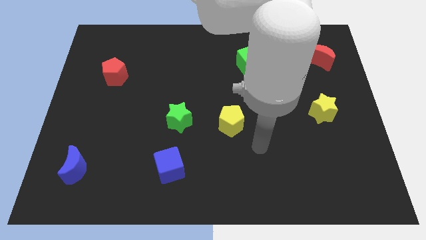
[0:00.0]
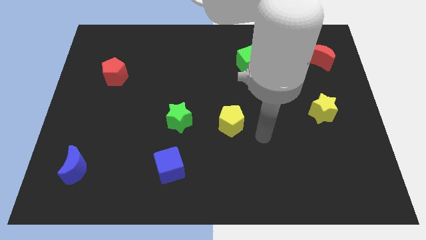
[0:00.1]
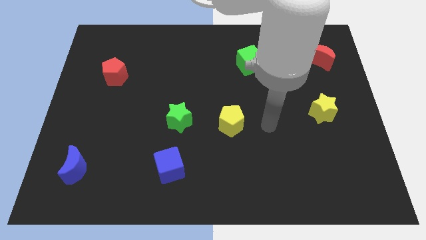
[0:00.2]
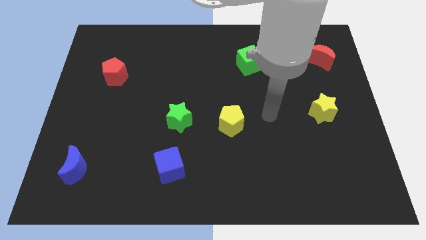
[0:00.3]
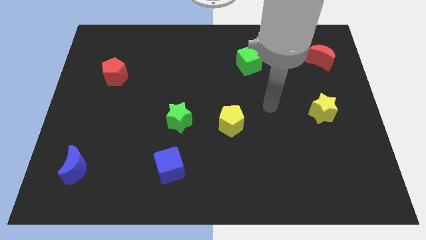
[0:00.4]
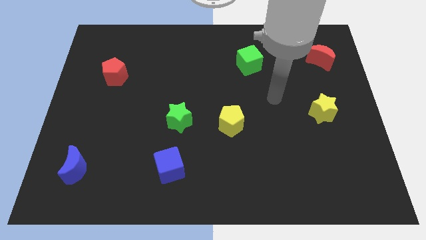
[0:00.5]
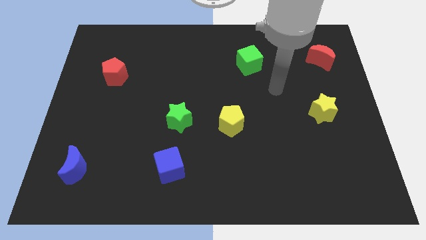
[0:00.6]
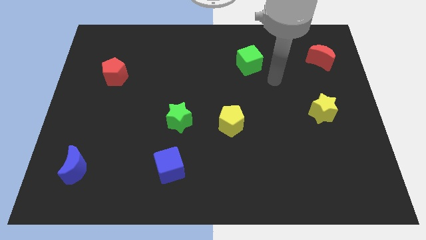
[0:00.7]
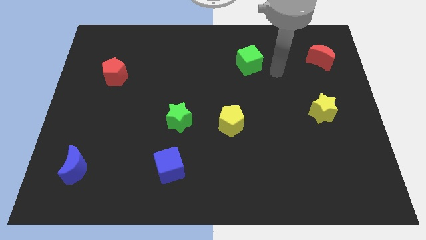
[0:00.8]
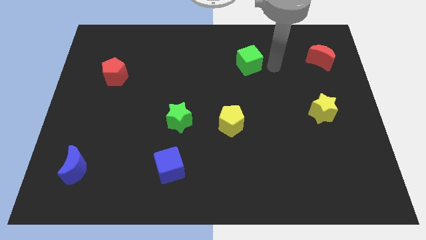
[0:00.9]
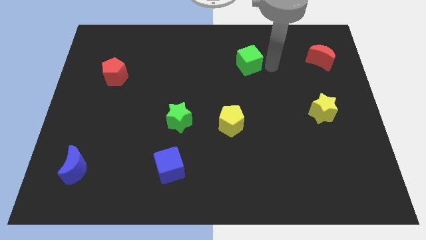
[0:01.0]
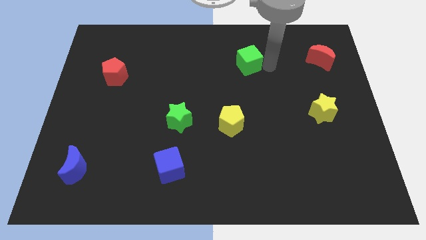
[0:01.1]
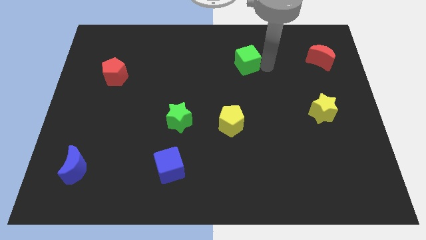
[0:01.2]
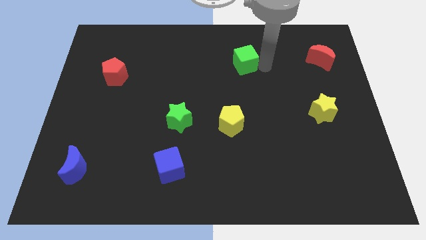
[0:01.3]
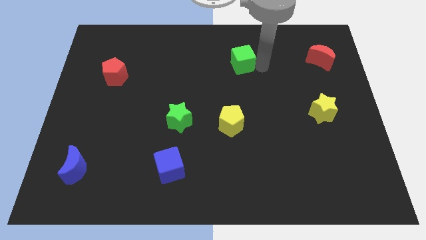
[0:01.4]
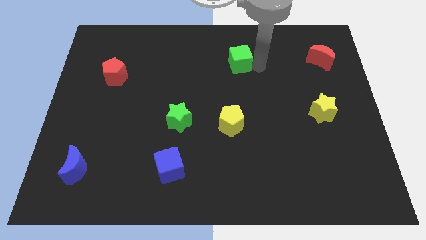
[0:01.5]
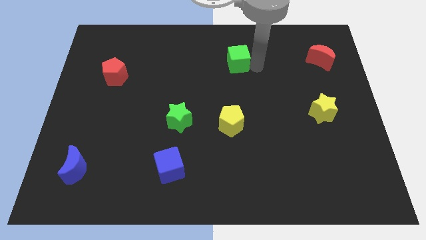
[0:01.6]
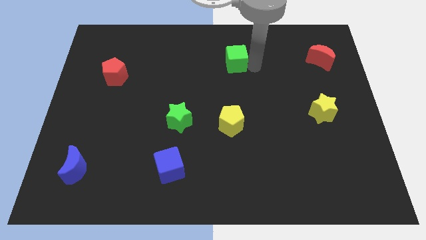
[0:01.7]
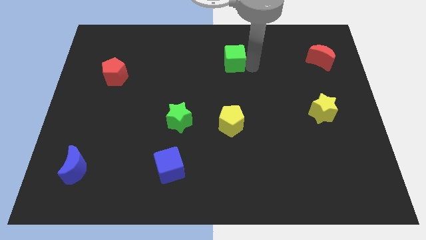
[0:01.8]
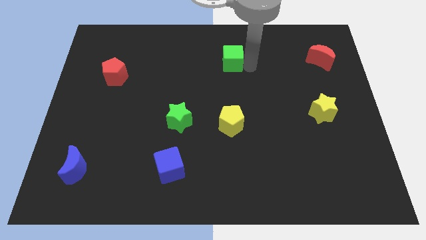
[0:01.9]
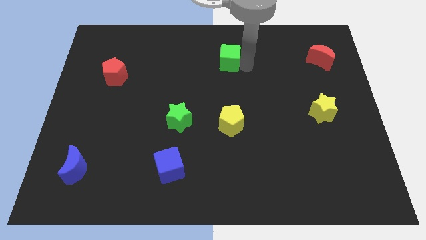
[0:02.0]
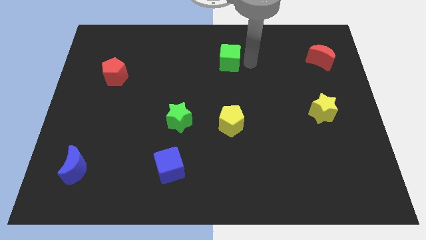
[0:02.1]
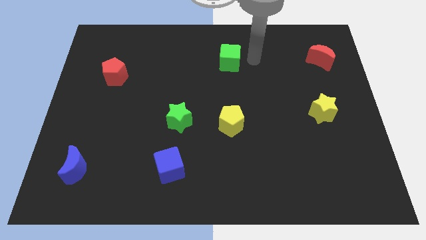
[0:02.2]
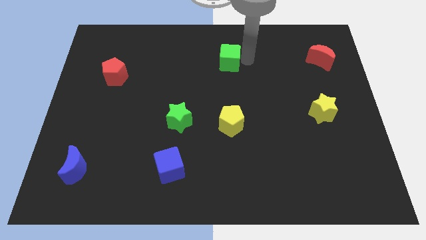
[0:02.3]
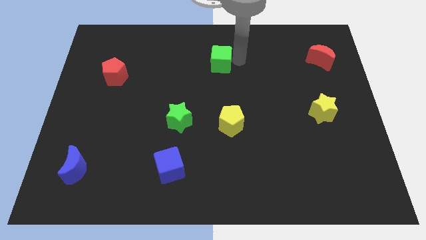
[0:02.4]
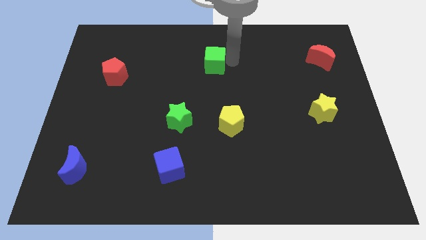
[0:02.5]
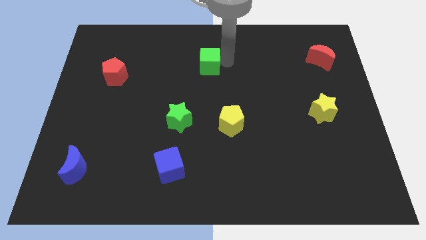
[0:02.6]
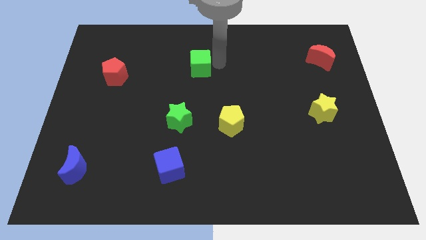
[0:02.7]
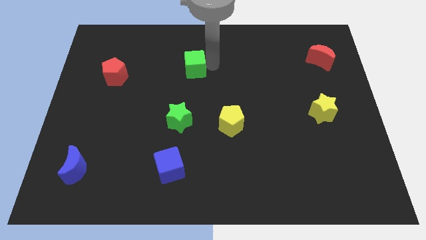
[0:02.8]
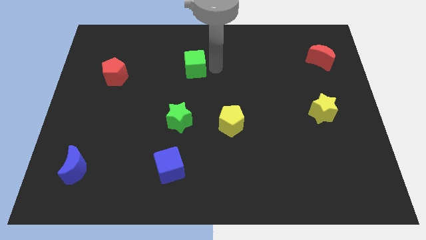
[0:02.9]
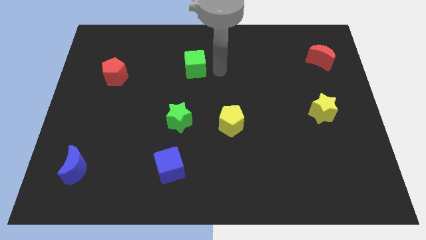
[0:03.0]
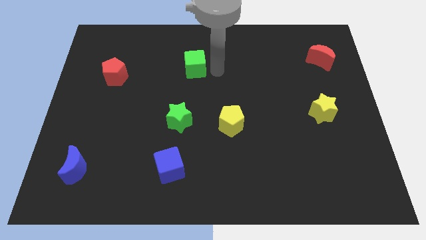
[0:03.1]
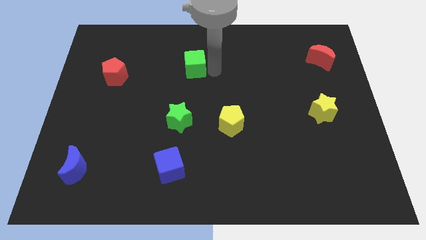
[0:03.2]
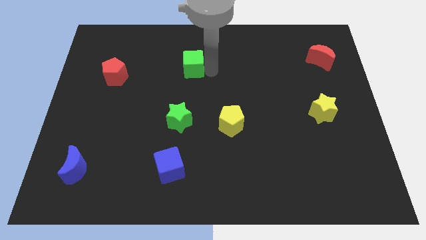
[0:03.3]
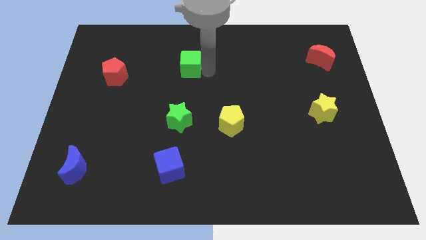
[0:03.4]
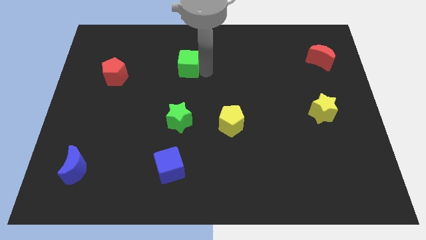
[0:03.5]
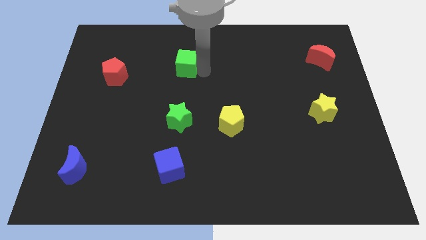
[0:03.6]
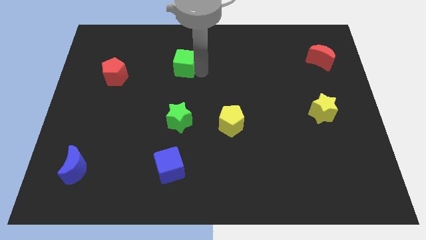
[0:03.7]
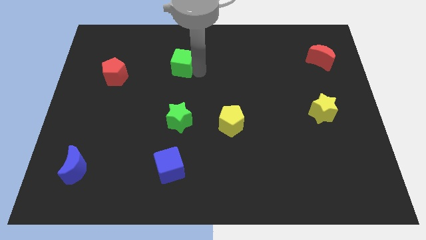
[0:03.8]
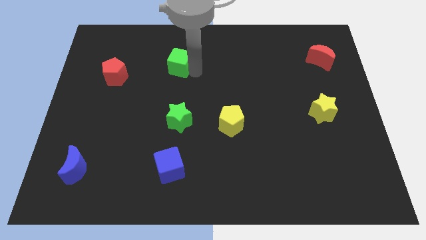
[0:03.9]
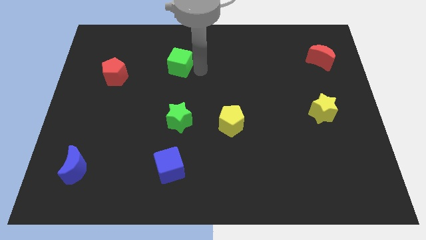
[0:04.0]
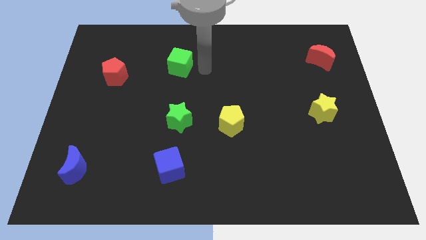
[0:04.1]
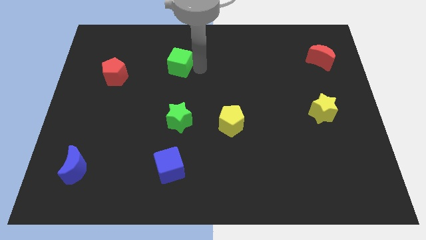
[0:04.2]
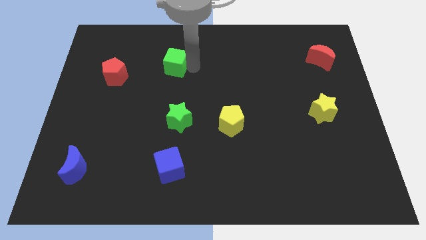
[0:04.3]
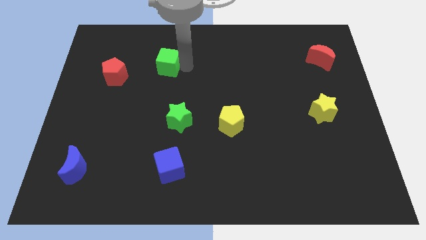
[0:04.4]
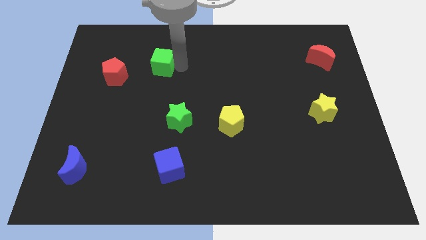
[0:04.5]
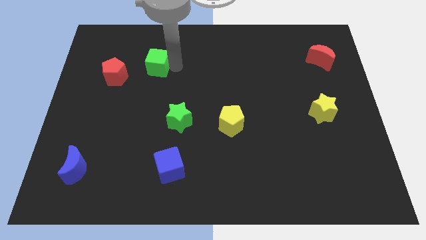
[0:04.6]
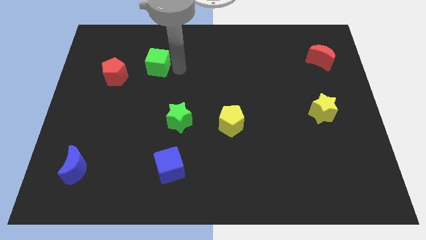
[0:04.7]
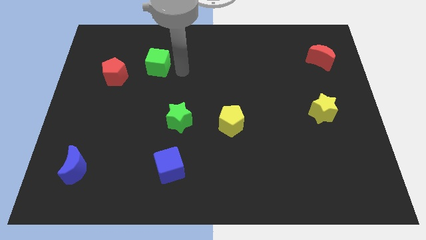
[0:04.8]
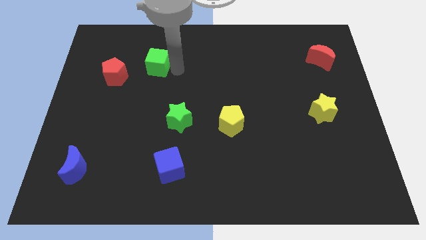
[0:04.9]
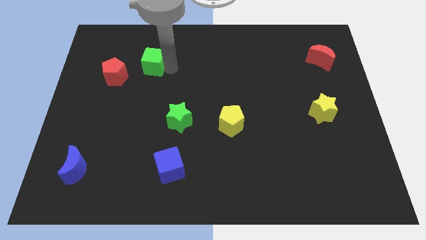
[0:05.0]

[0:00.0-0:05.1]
slide the green cube to the top right of the red pentagon

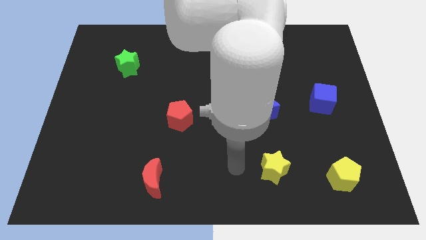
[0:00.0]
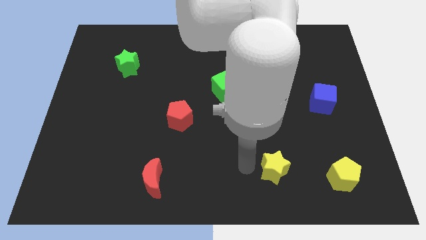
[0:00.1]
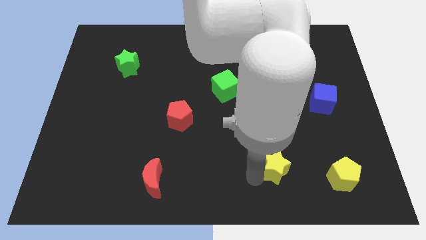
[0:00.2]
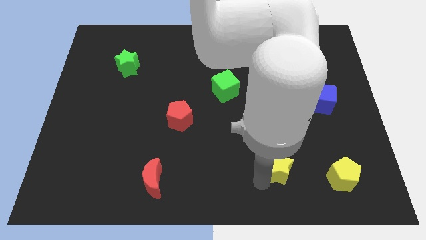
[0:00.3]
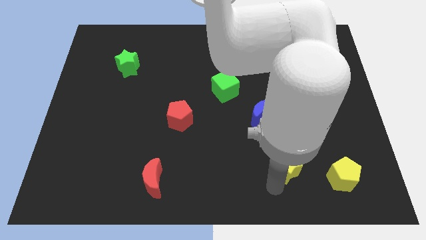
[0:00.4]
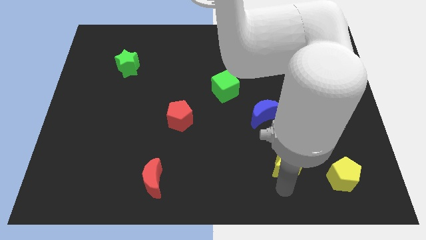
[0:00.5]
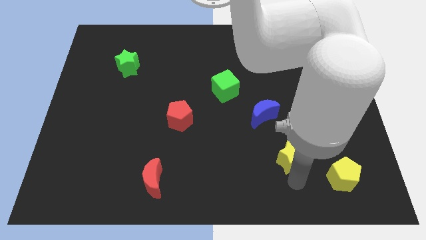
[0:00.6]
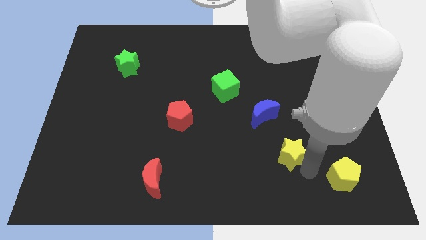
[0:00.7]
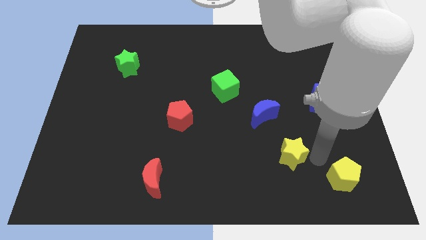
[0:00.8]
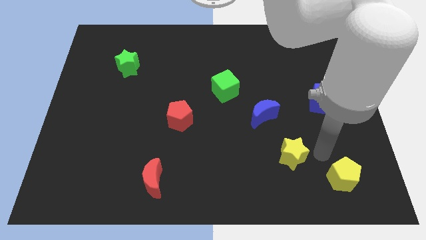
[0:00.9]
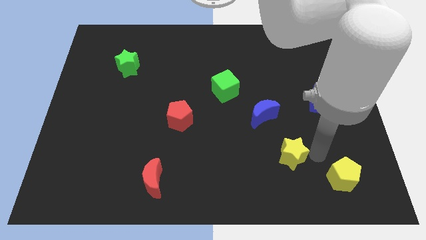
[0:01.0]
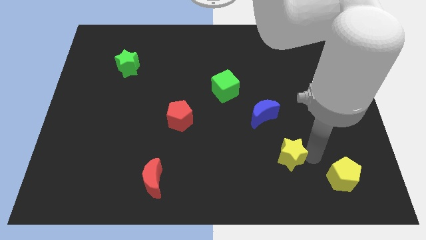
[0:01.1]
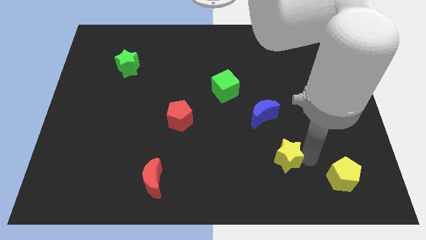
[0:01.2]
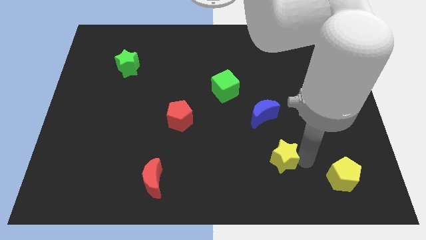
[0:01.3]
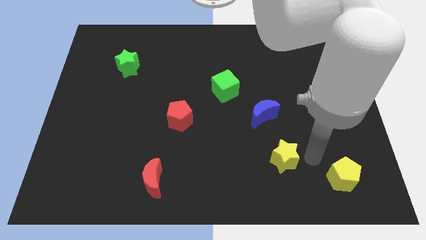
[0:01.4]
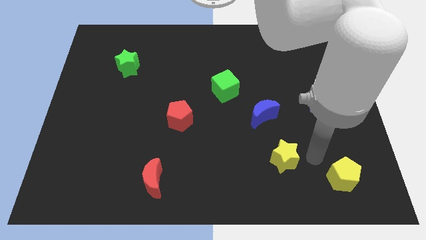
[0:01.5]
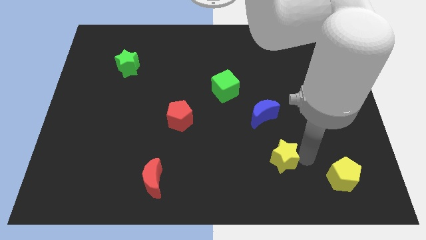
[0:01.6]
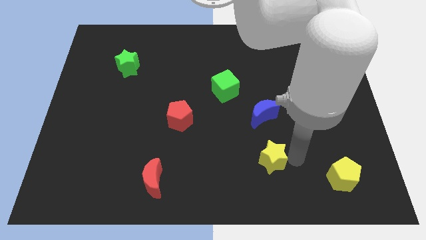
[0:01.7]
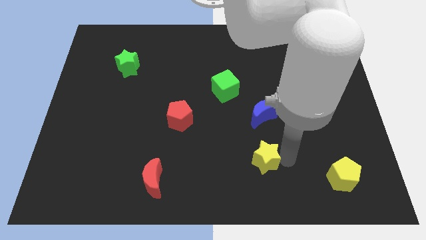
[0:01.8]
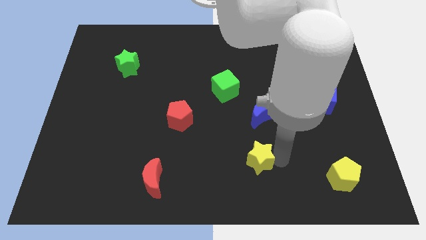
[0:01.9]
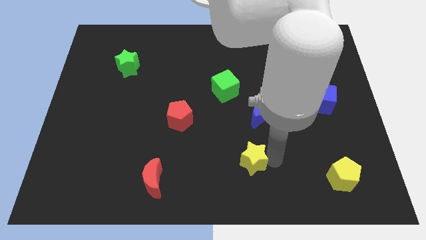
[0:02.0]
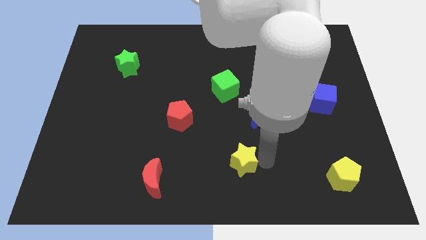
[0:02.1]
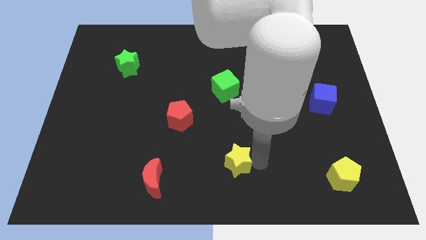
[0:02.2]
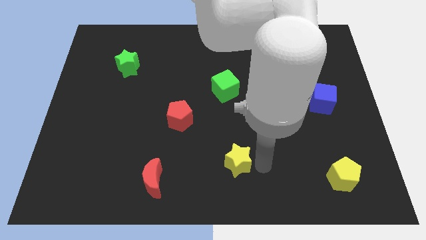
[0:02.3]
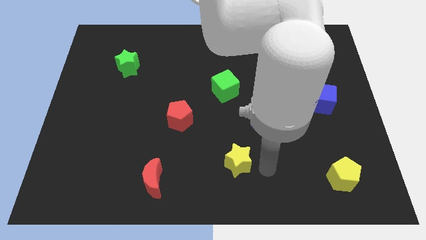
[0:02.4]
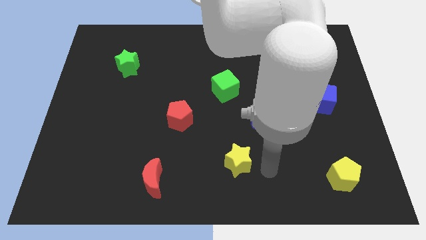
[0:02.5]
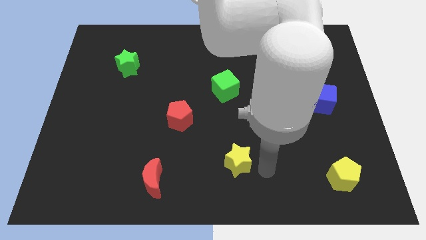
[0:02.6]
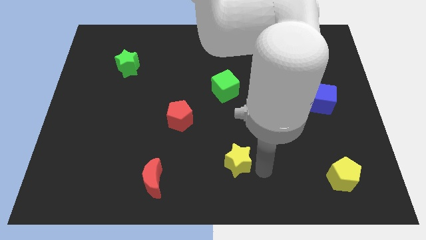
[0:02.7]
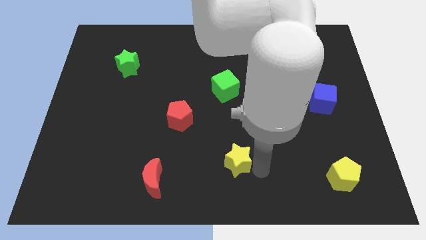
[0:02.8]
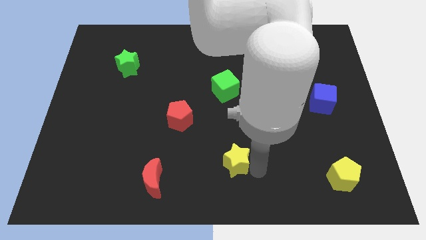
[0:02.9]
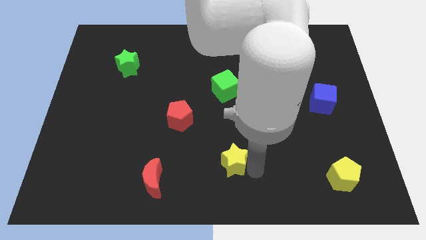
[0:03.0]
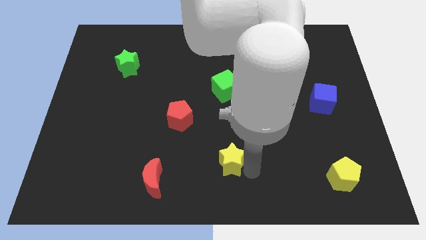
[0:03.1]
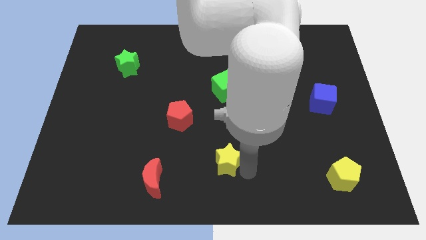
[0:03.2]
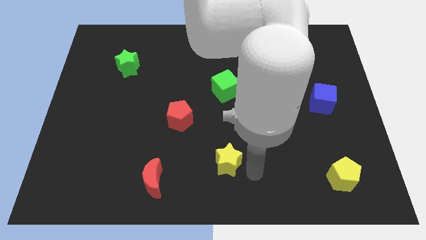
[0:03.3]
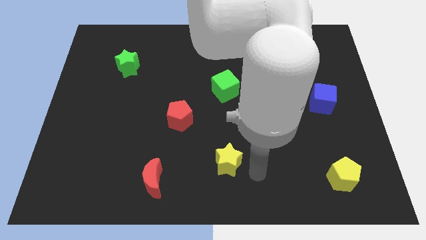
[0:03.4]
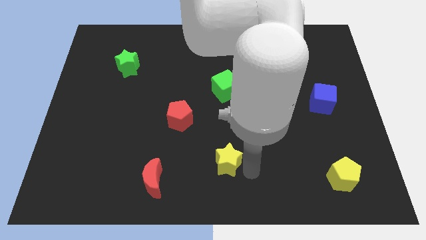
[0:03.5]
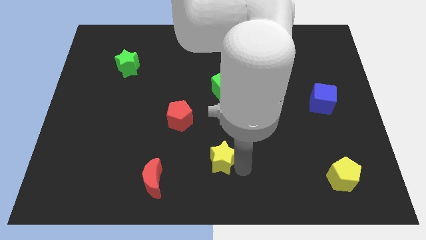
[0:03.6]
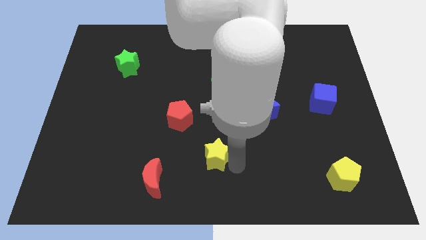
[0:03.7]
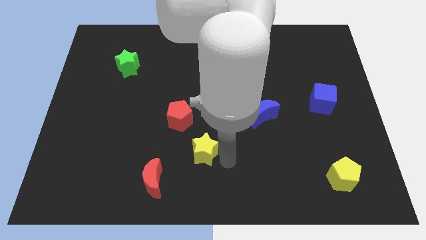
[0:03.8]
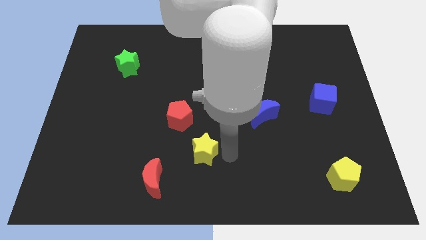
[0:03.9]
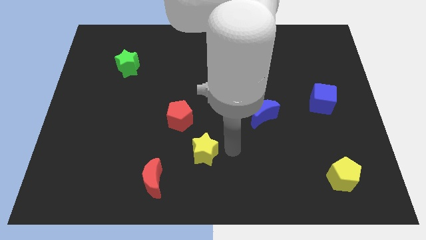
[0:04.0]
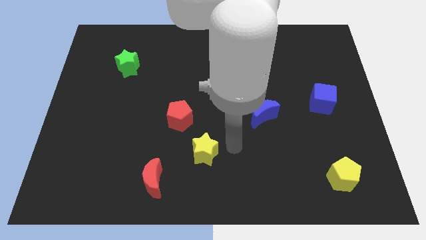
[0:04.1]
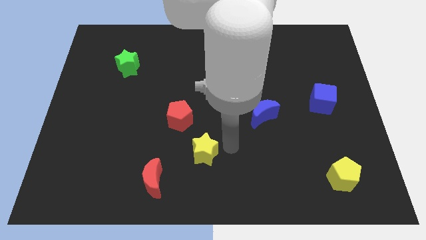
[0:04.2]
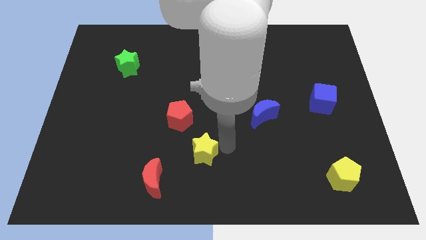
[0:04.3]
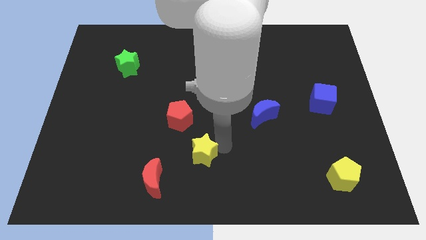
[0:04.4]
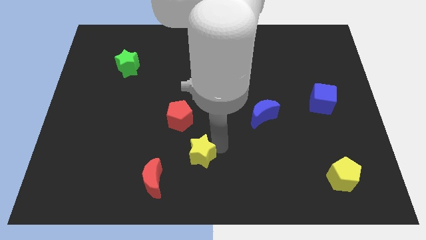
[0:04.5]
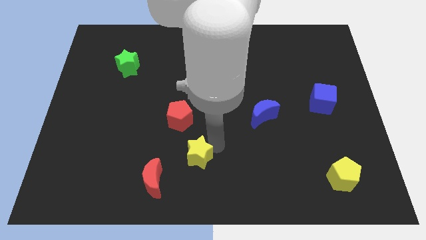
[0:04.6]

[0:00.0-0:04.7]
slide the yellow star below the red pentagon
